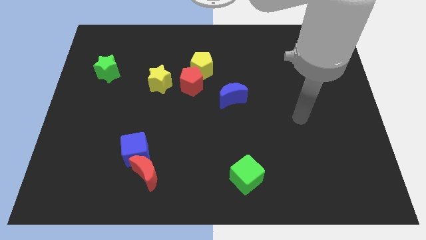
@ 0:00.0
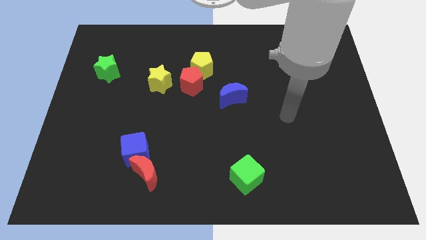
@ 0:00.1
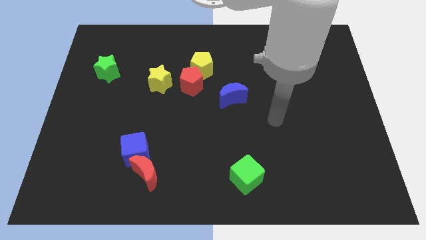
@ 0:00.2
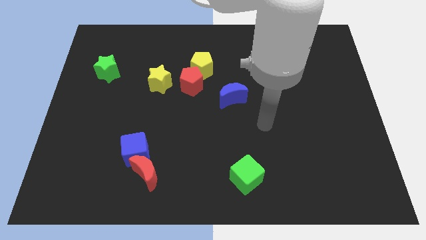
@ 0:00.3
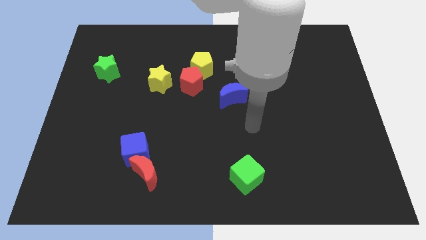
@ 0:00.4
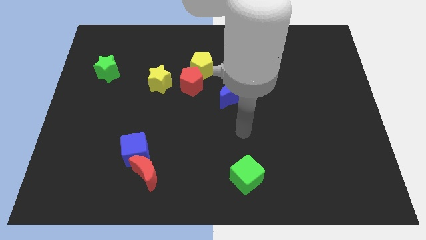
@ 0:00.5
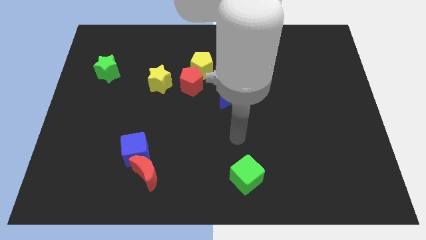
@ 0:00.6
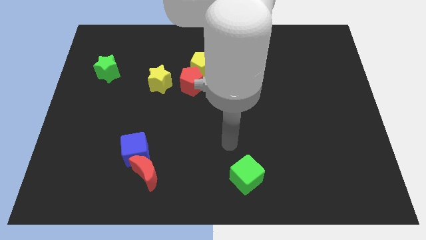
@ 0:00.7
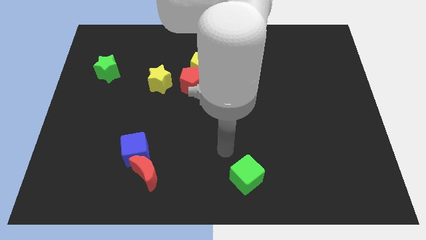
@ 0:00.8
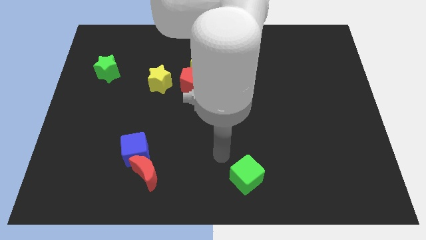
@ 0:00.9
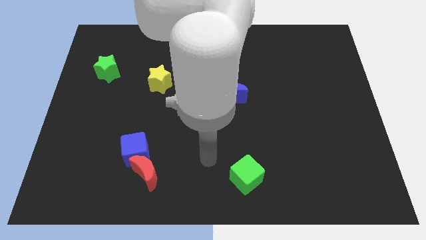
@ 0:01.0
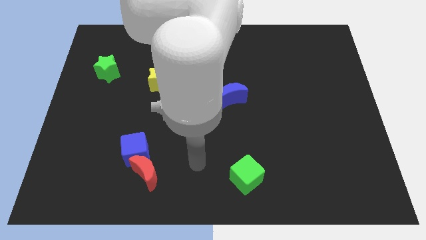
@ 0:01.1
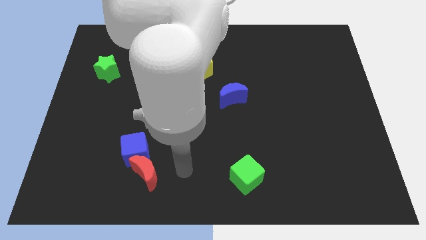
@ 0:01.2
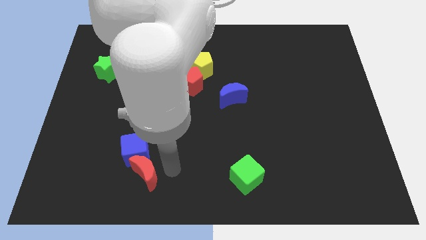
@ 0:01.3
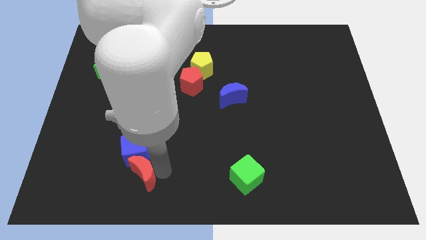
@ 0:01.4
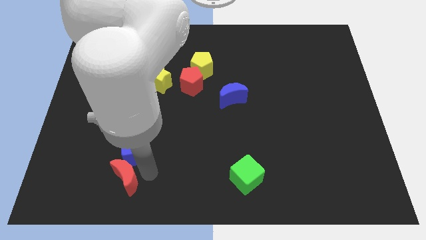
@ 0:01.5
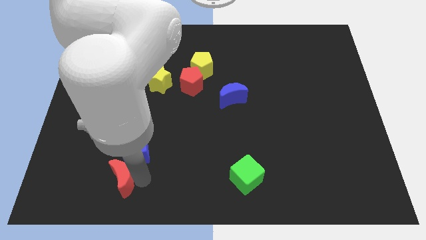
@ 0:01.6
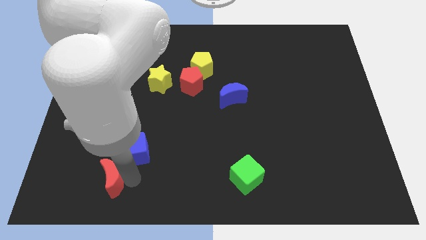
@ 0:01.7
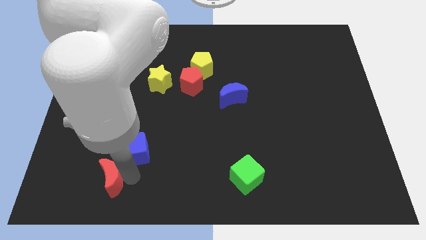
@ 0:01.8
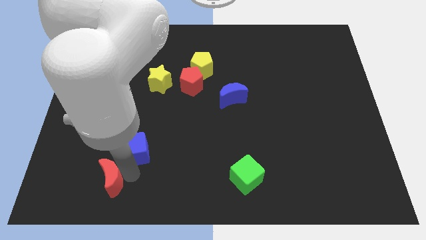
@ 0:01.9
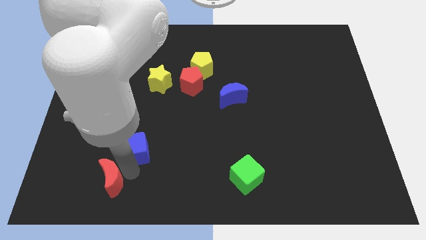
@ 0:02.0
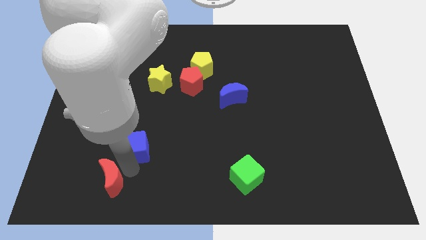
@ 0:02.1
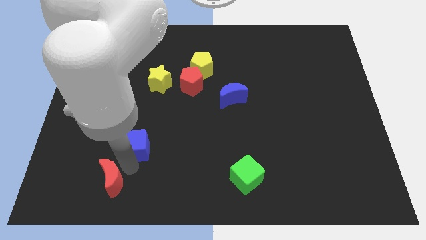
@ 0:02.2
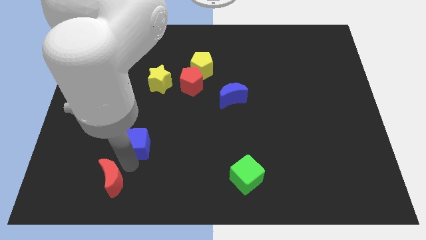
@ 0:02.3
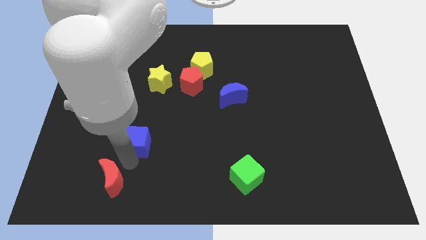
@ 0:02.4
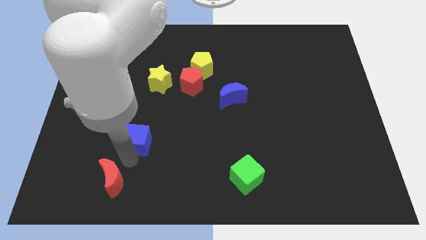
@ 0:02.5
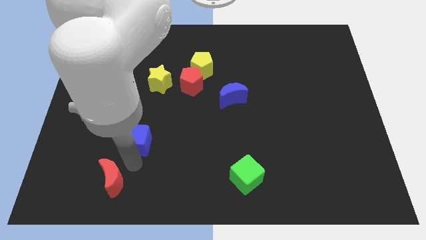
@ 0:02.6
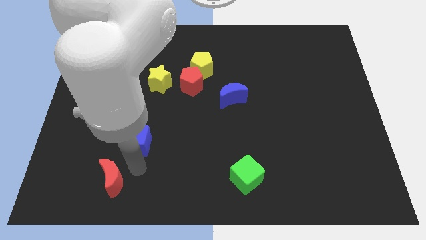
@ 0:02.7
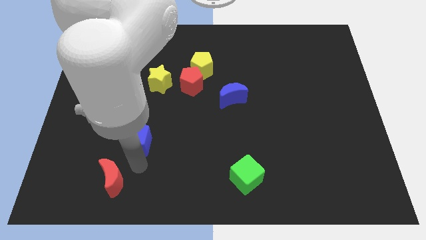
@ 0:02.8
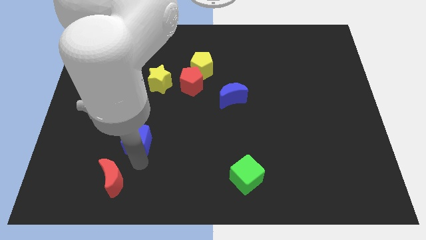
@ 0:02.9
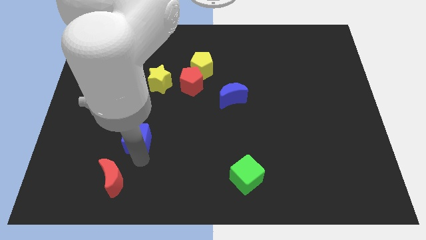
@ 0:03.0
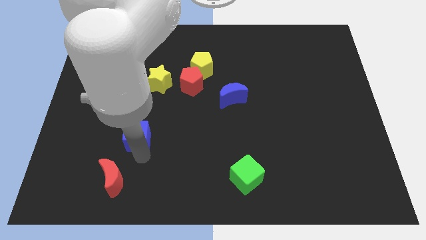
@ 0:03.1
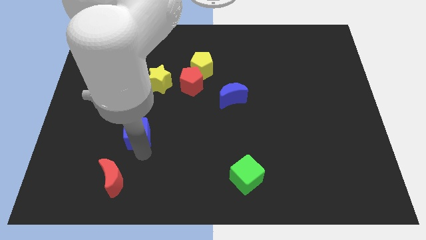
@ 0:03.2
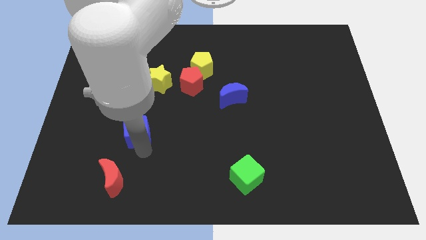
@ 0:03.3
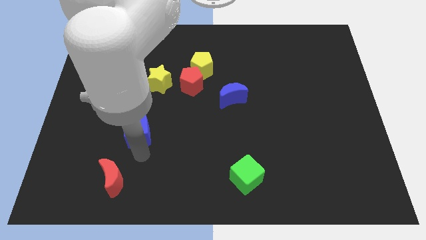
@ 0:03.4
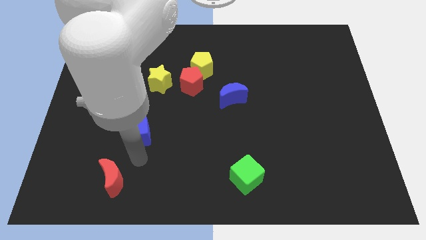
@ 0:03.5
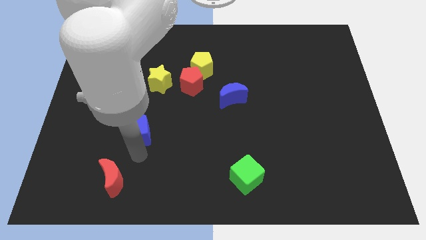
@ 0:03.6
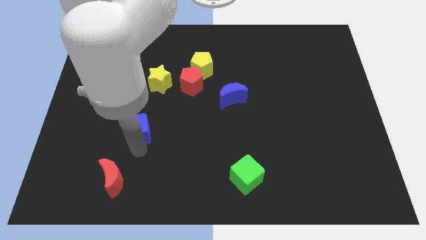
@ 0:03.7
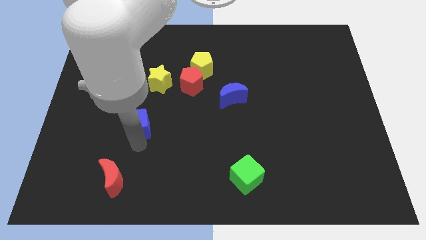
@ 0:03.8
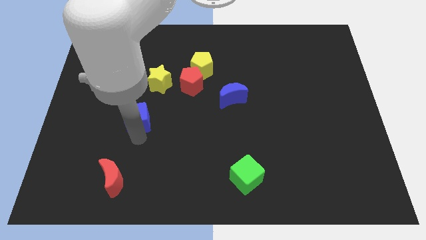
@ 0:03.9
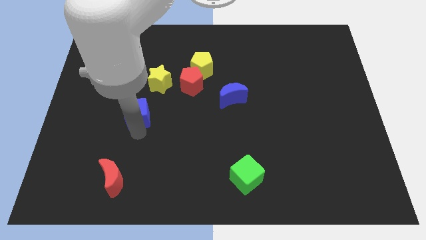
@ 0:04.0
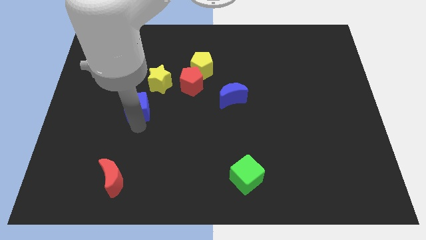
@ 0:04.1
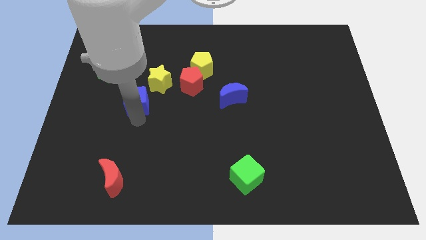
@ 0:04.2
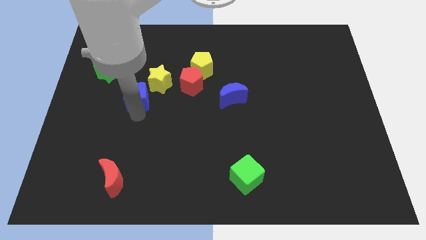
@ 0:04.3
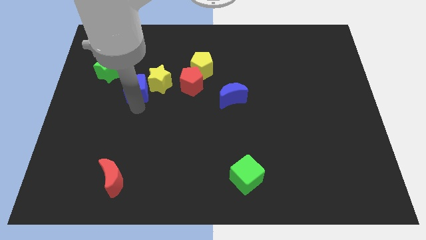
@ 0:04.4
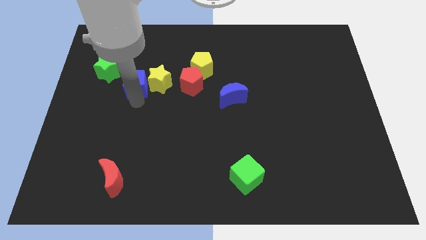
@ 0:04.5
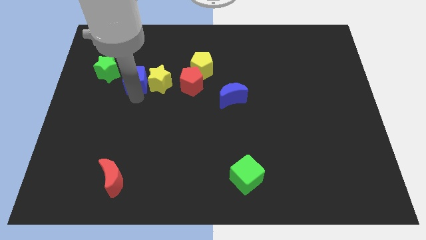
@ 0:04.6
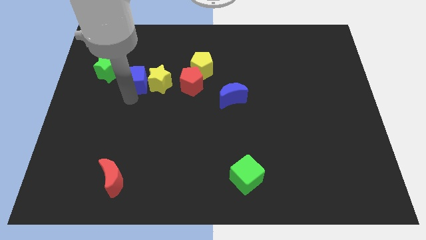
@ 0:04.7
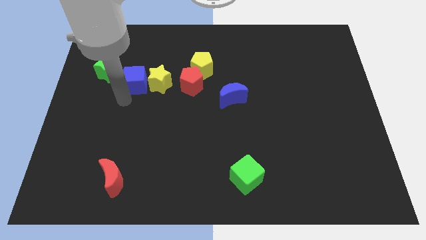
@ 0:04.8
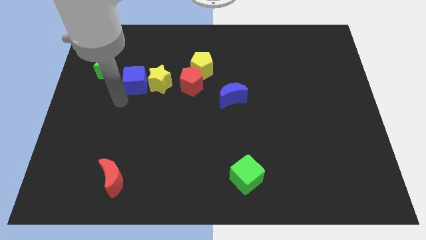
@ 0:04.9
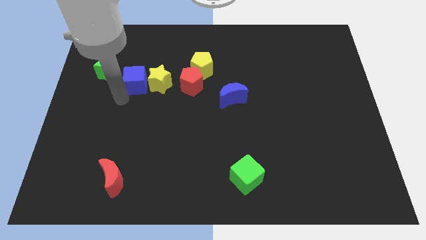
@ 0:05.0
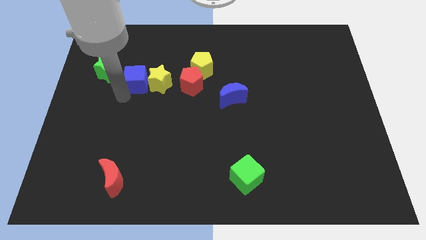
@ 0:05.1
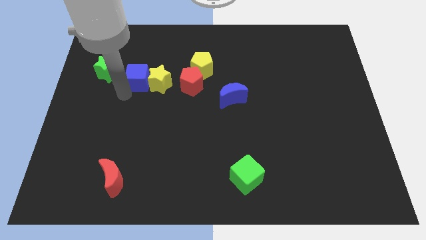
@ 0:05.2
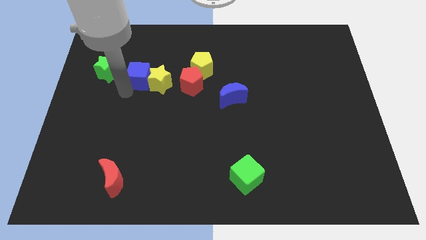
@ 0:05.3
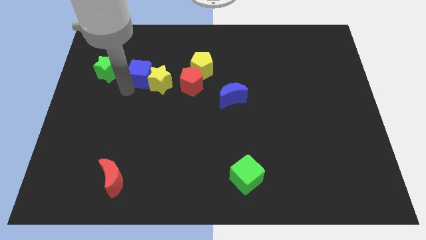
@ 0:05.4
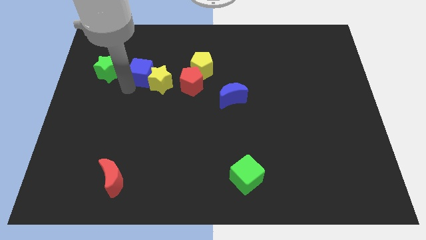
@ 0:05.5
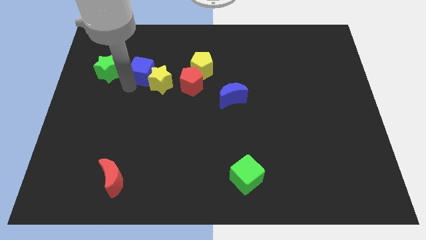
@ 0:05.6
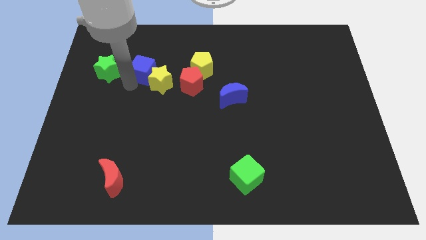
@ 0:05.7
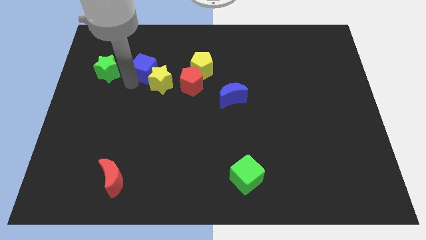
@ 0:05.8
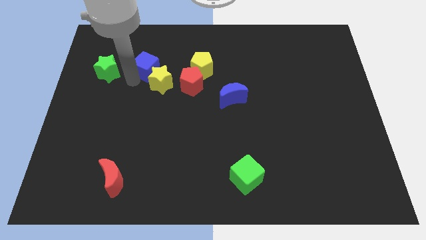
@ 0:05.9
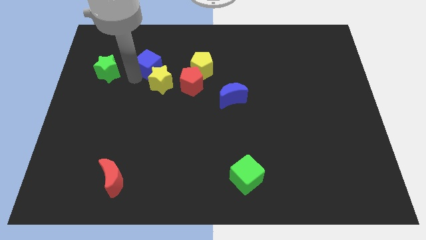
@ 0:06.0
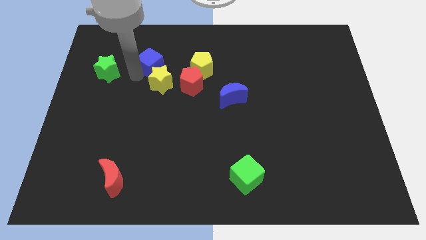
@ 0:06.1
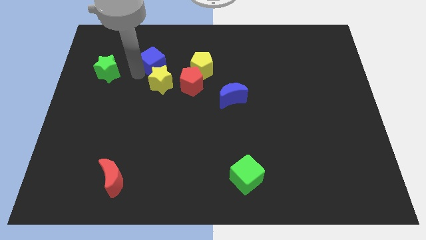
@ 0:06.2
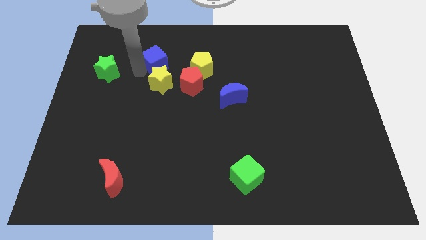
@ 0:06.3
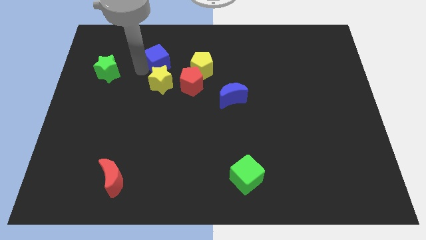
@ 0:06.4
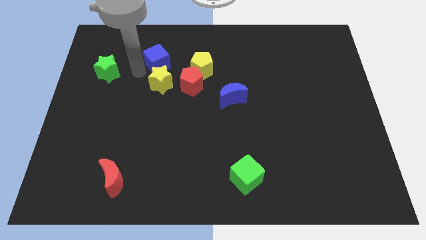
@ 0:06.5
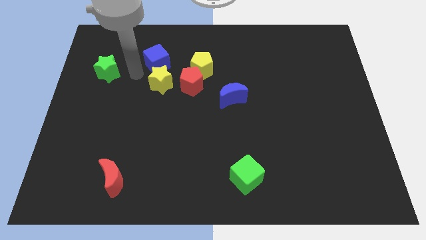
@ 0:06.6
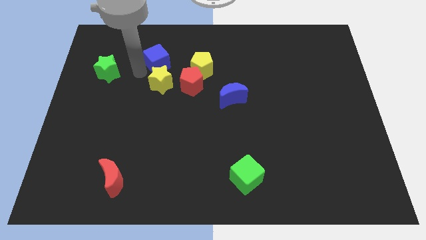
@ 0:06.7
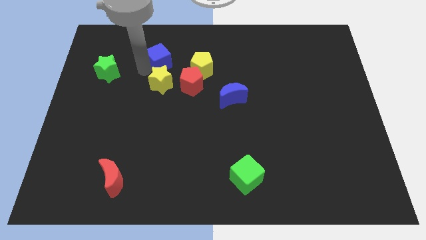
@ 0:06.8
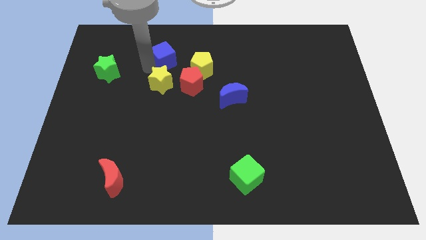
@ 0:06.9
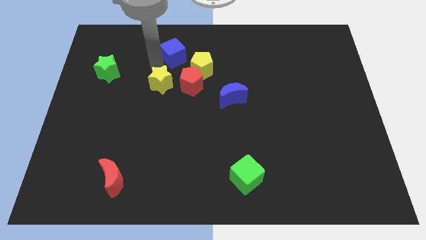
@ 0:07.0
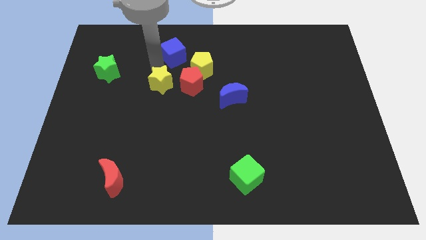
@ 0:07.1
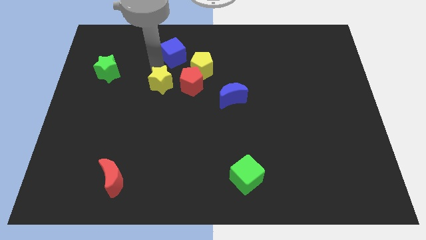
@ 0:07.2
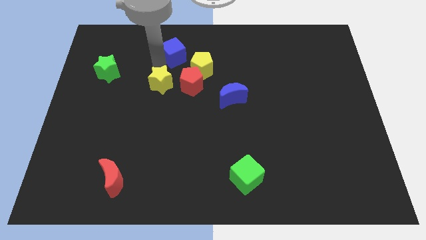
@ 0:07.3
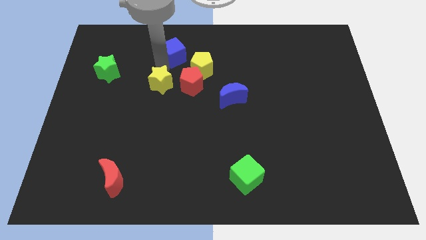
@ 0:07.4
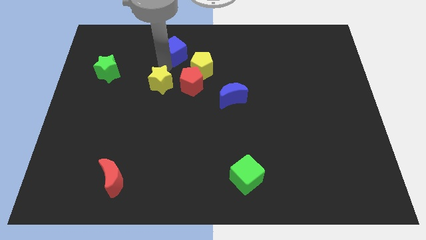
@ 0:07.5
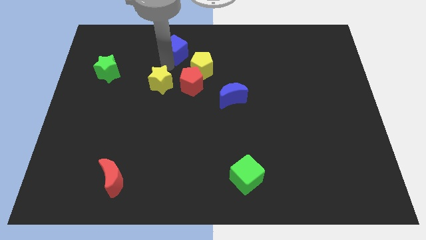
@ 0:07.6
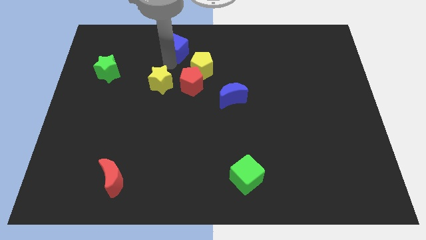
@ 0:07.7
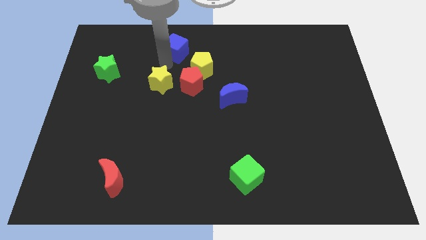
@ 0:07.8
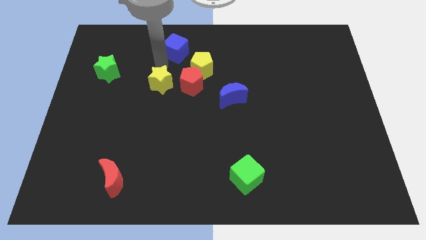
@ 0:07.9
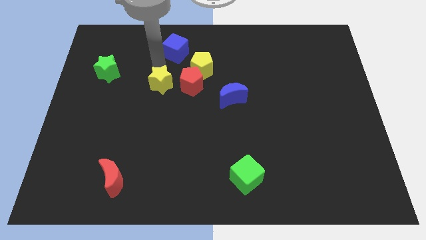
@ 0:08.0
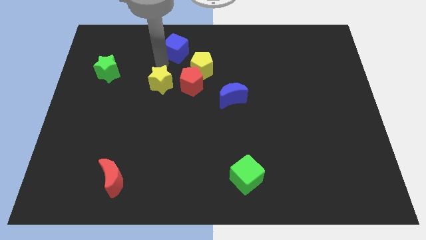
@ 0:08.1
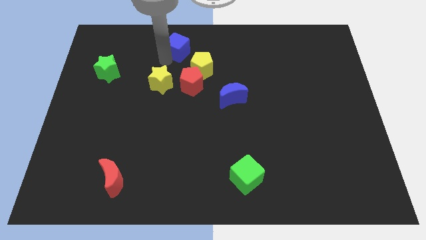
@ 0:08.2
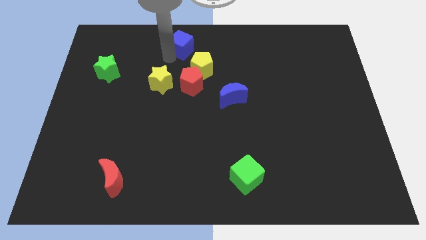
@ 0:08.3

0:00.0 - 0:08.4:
move the blue cube to the top
